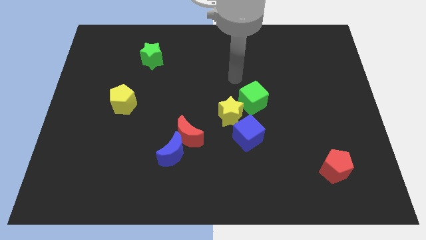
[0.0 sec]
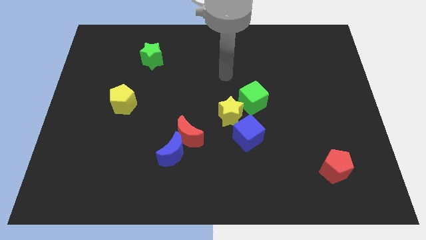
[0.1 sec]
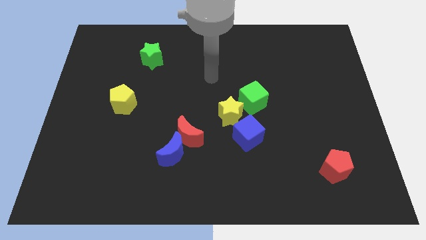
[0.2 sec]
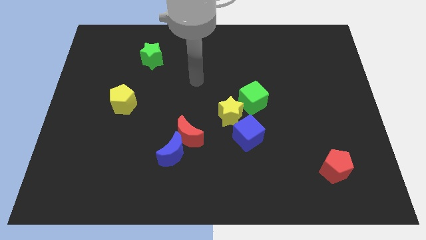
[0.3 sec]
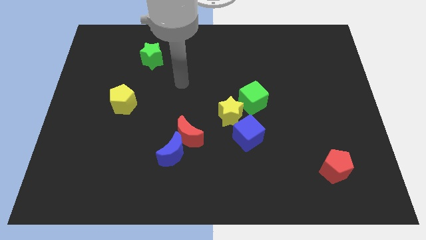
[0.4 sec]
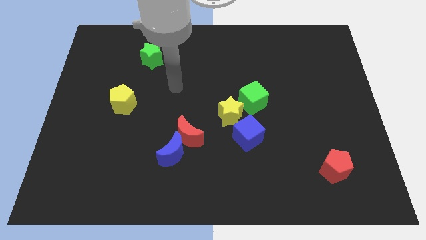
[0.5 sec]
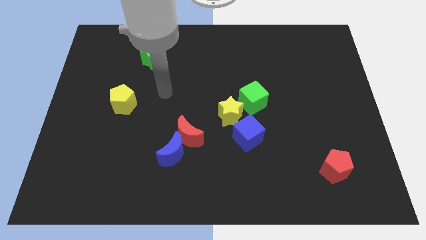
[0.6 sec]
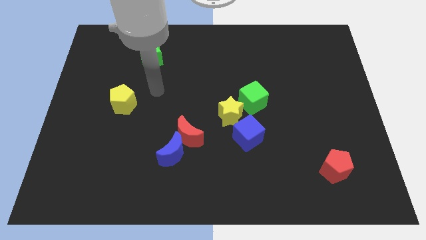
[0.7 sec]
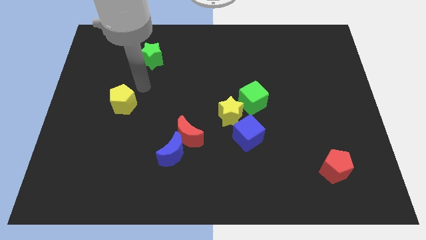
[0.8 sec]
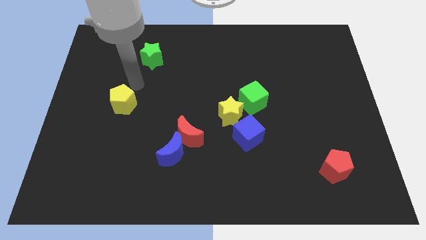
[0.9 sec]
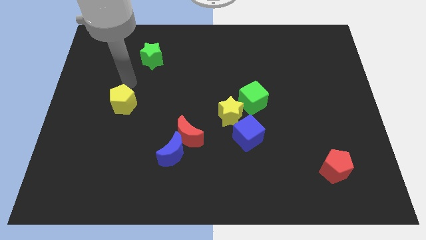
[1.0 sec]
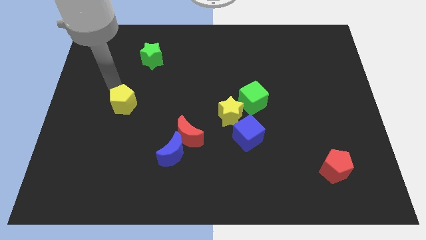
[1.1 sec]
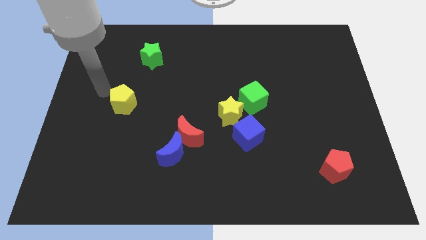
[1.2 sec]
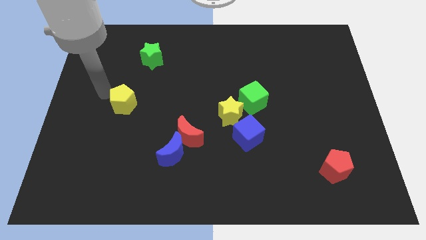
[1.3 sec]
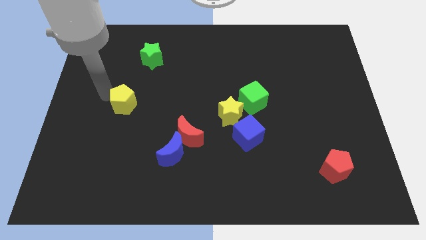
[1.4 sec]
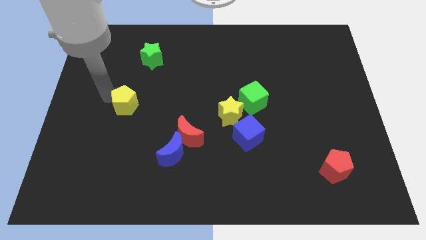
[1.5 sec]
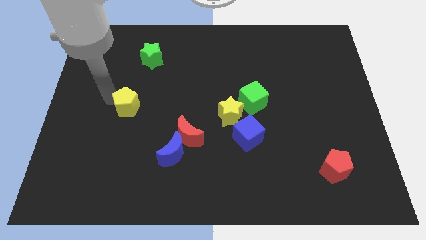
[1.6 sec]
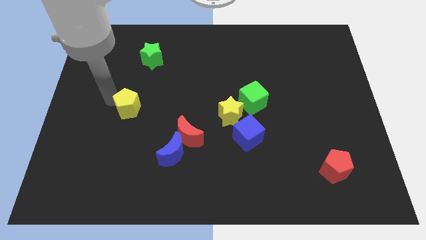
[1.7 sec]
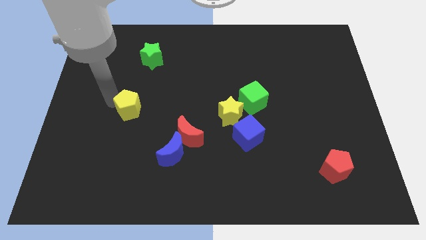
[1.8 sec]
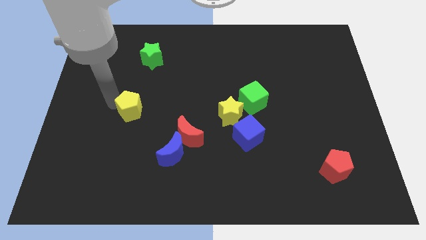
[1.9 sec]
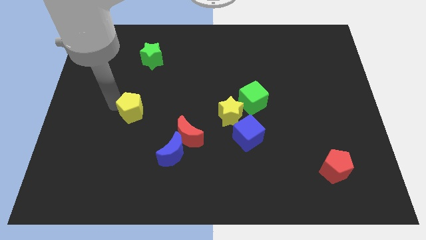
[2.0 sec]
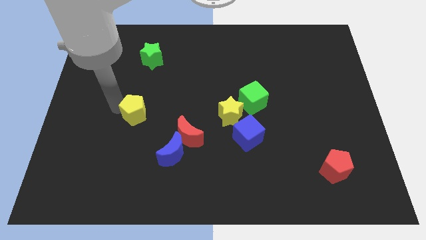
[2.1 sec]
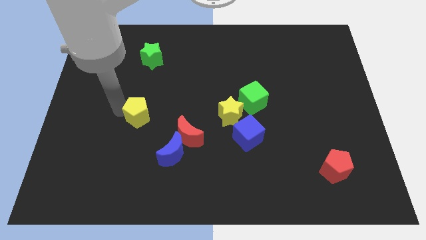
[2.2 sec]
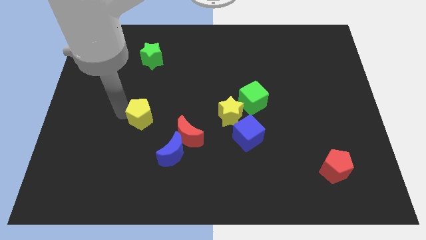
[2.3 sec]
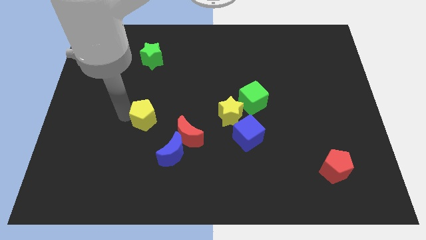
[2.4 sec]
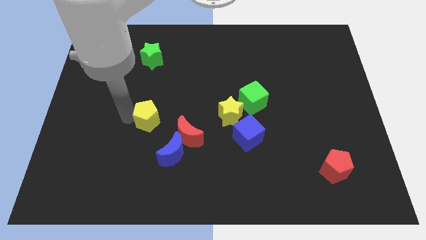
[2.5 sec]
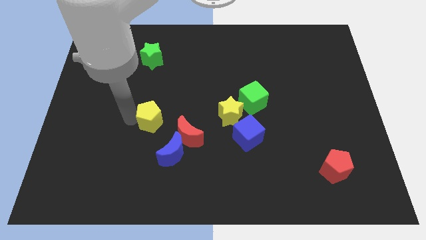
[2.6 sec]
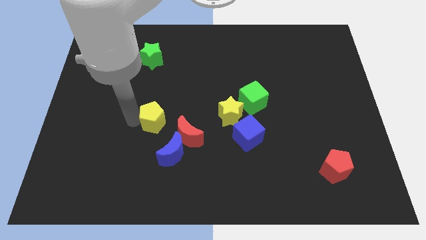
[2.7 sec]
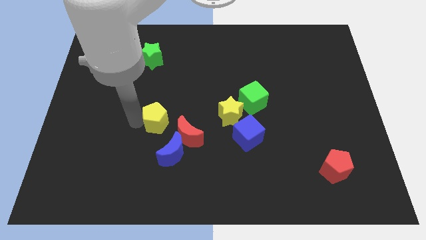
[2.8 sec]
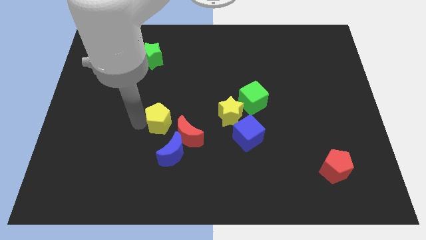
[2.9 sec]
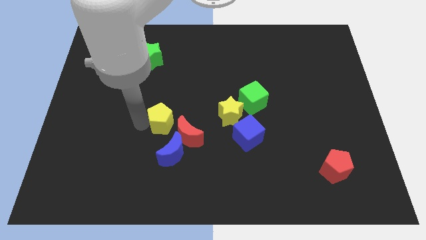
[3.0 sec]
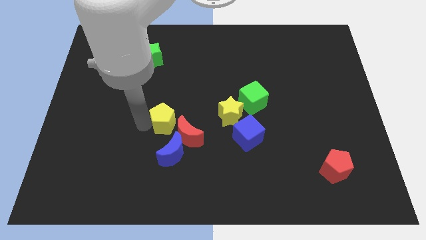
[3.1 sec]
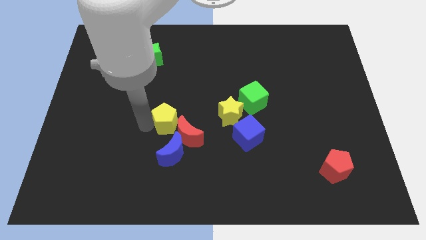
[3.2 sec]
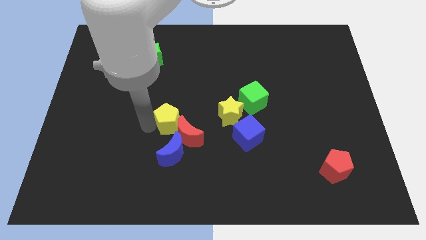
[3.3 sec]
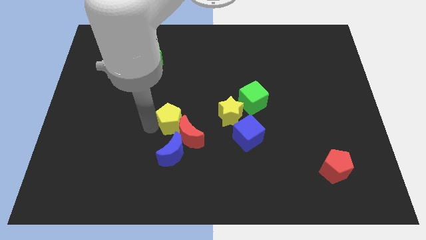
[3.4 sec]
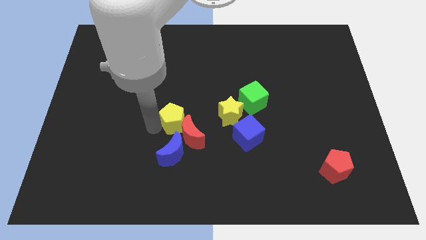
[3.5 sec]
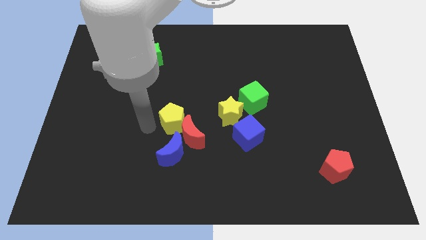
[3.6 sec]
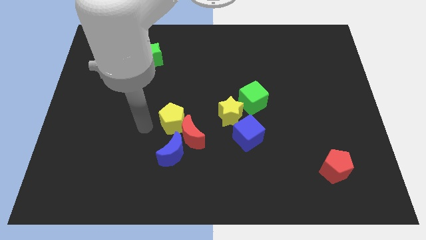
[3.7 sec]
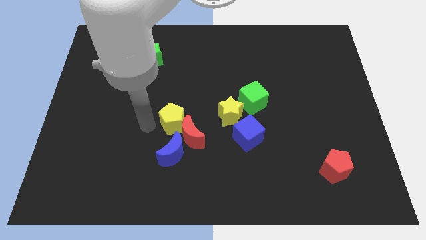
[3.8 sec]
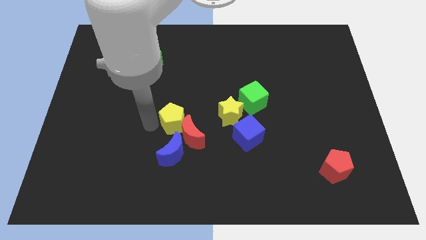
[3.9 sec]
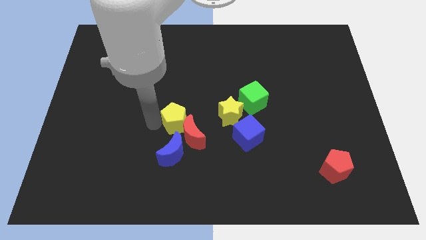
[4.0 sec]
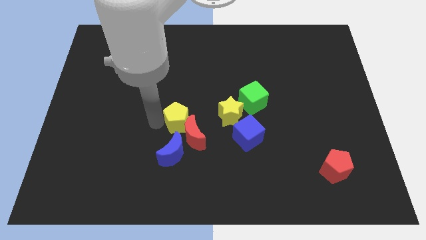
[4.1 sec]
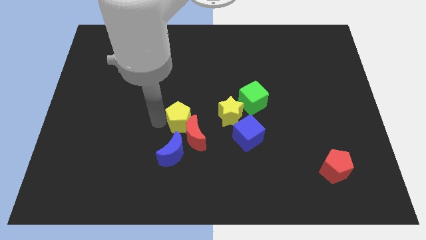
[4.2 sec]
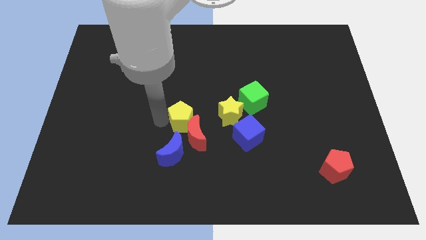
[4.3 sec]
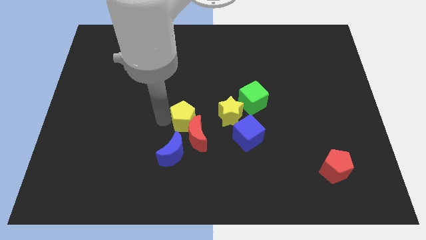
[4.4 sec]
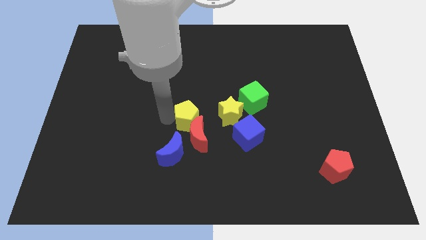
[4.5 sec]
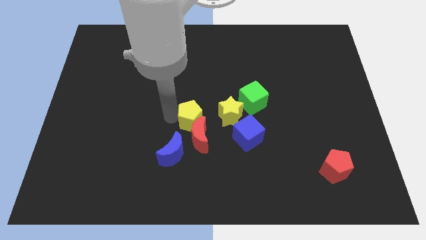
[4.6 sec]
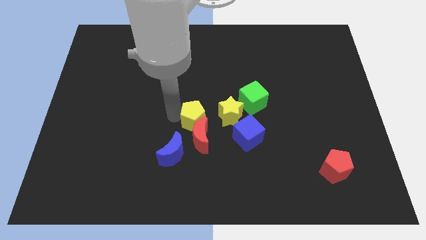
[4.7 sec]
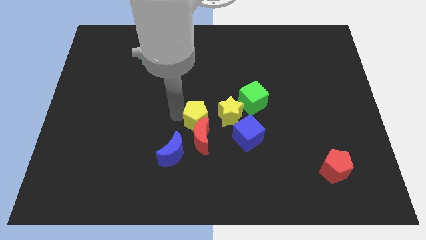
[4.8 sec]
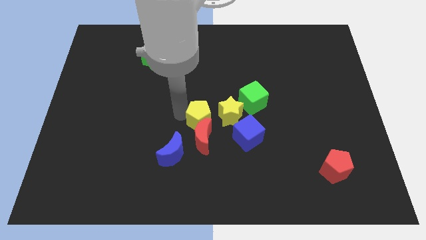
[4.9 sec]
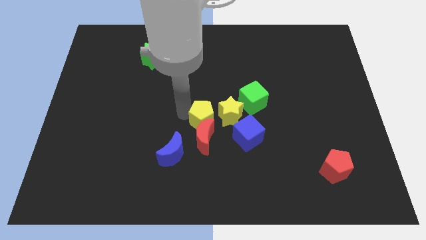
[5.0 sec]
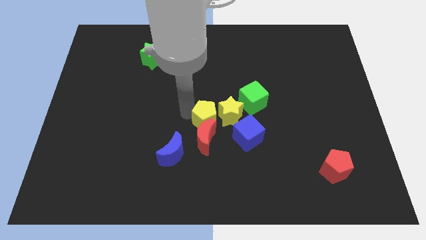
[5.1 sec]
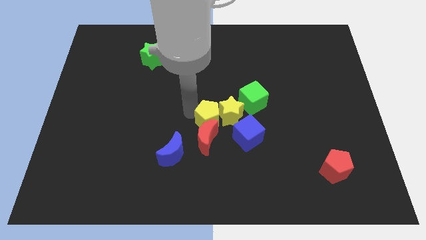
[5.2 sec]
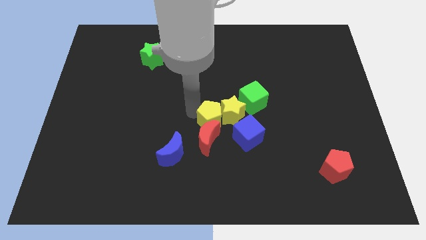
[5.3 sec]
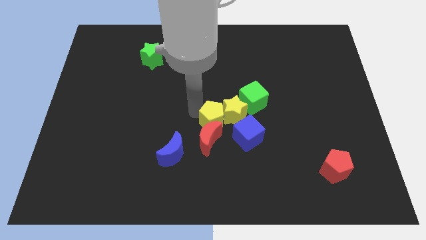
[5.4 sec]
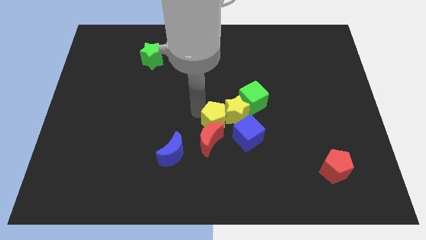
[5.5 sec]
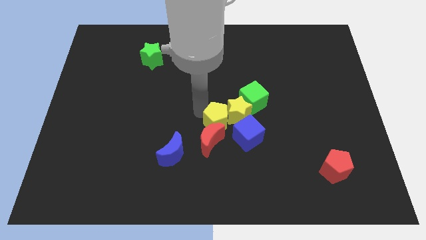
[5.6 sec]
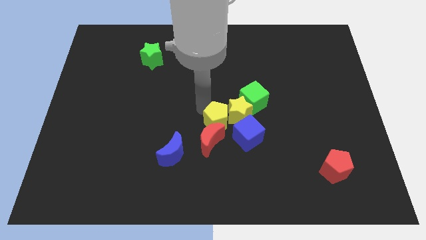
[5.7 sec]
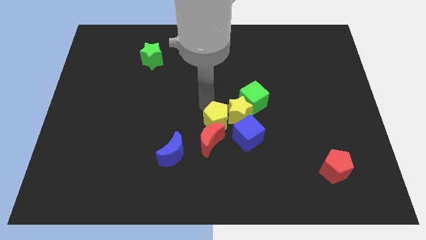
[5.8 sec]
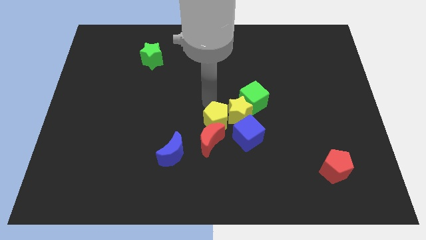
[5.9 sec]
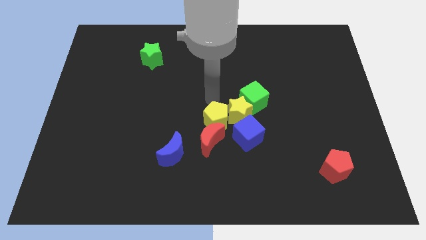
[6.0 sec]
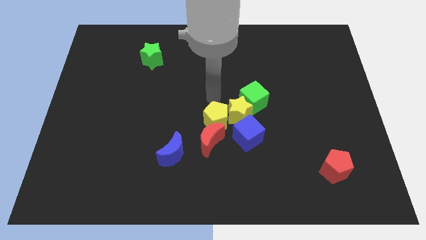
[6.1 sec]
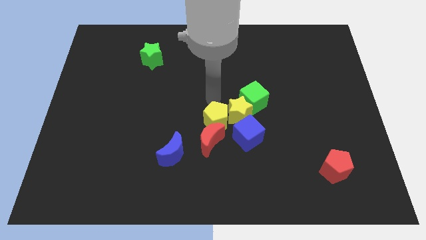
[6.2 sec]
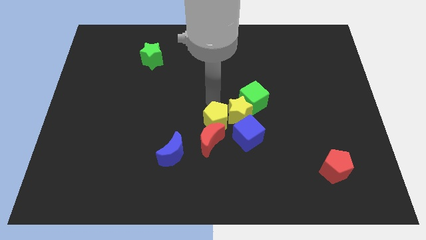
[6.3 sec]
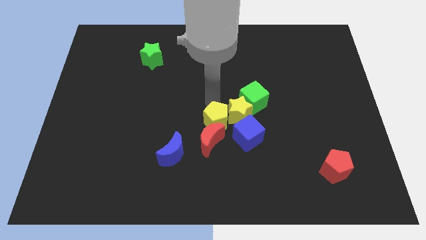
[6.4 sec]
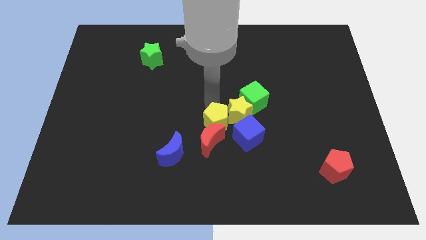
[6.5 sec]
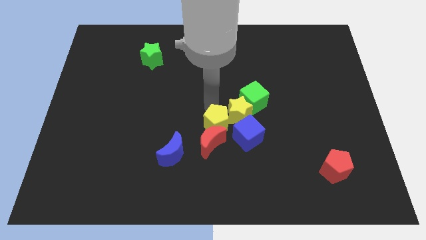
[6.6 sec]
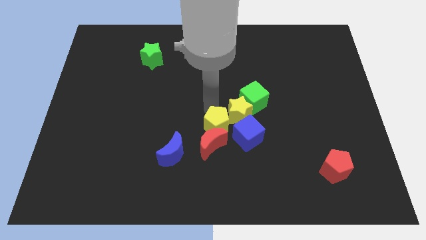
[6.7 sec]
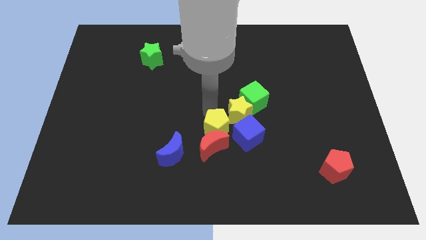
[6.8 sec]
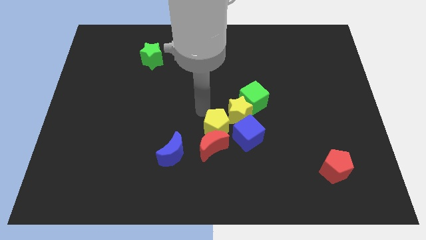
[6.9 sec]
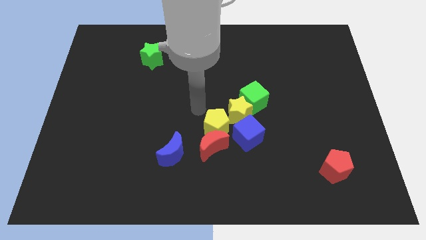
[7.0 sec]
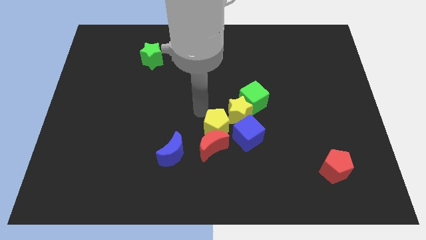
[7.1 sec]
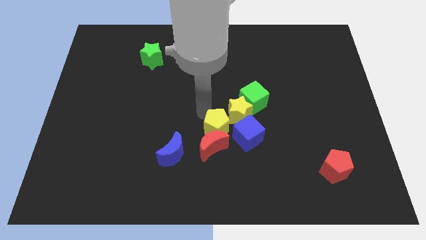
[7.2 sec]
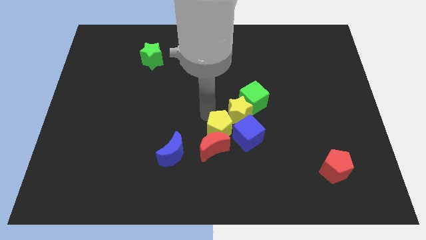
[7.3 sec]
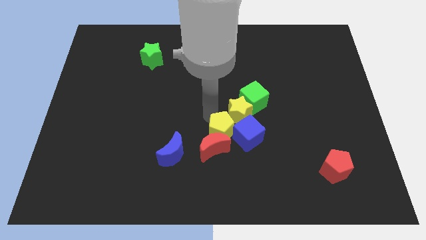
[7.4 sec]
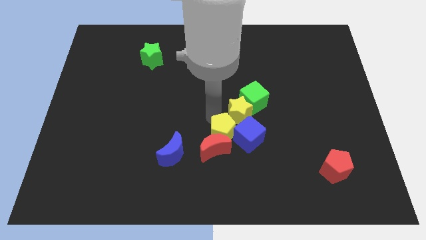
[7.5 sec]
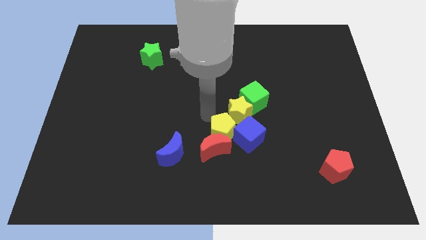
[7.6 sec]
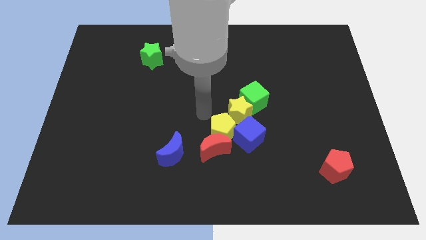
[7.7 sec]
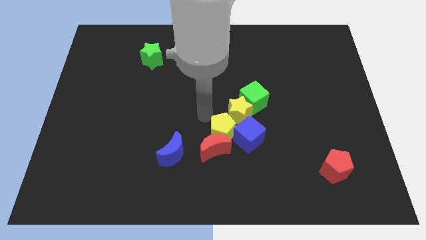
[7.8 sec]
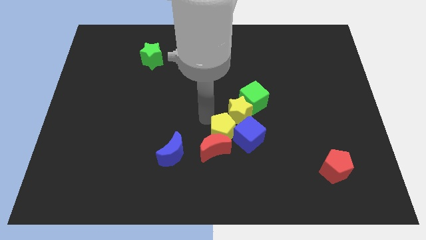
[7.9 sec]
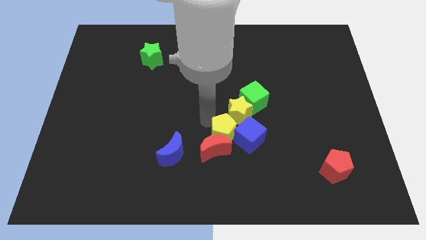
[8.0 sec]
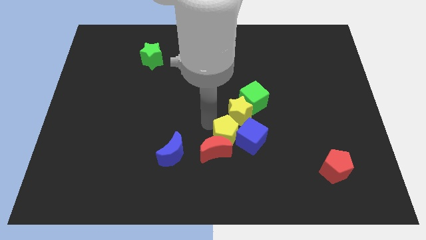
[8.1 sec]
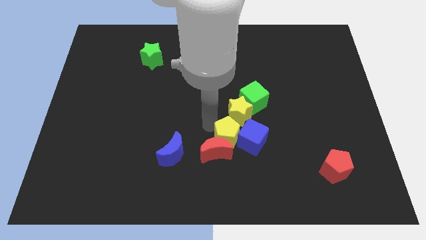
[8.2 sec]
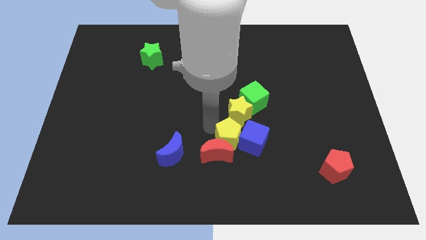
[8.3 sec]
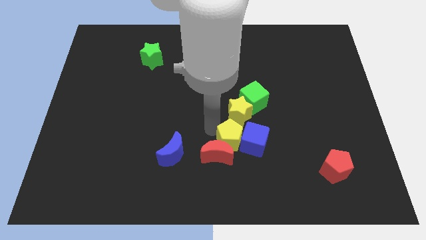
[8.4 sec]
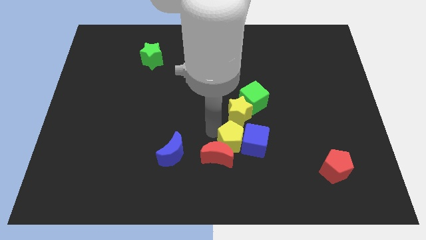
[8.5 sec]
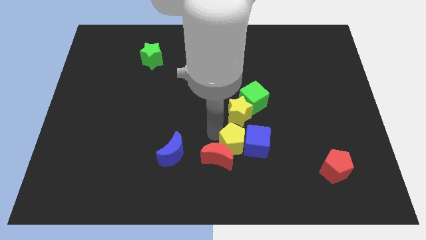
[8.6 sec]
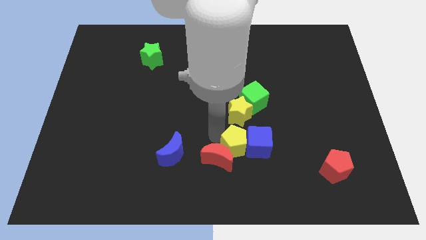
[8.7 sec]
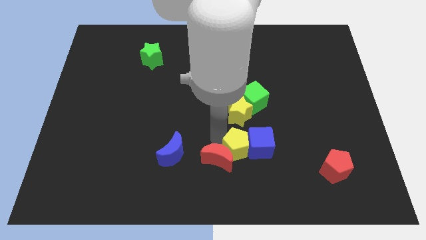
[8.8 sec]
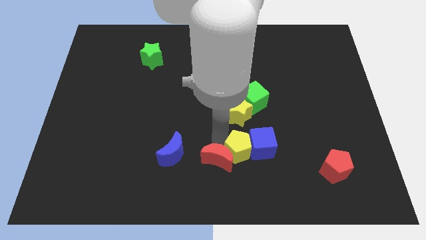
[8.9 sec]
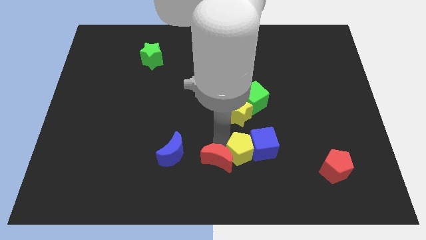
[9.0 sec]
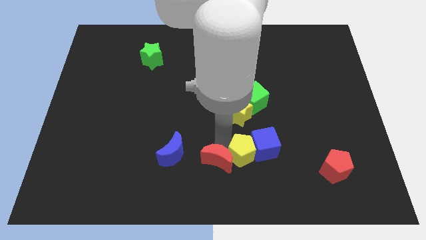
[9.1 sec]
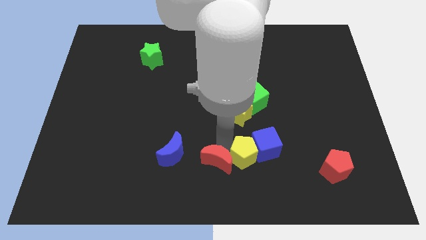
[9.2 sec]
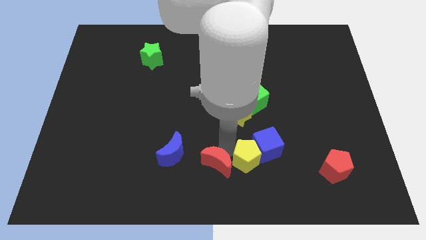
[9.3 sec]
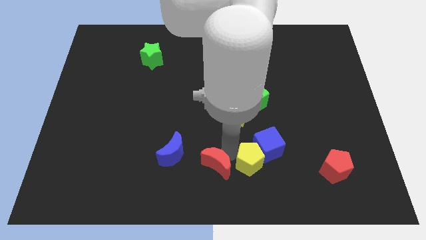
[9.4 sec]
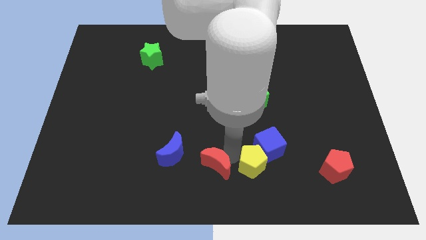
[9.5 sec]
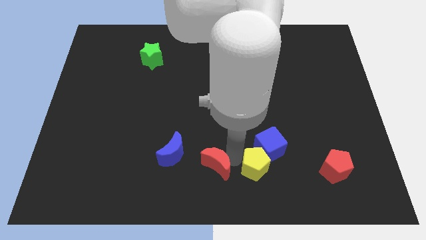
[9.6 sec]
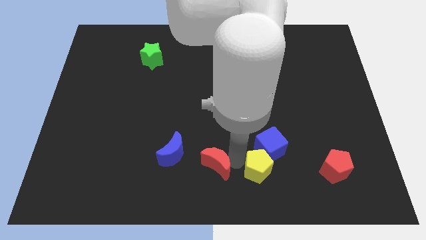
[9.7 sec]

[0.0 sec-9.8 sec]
slide the yellow pentagon left of the red pentagon
